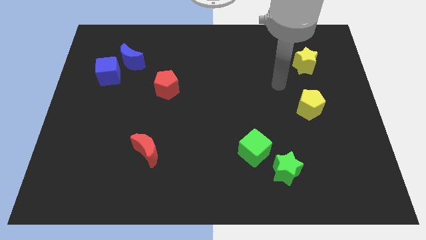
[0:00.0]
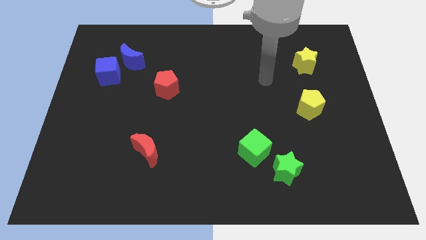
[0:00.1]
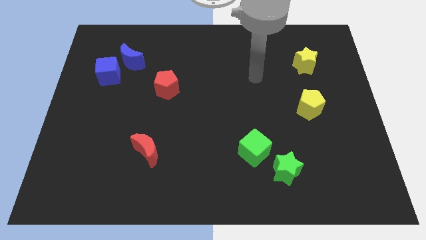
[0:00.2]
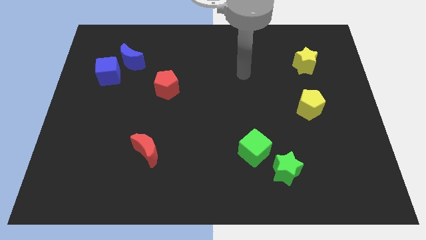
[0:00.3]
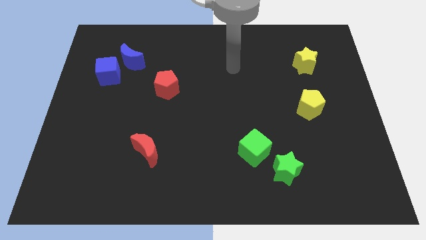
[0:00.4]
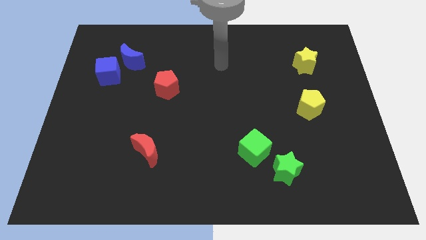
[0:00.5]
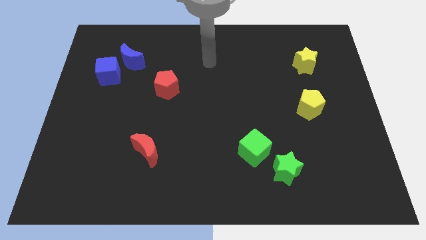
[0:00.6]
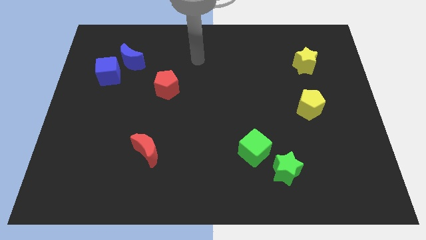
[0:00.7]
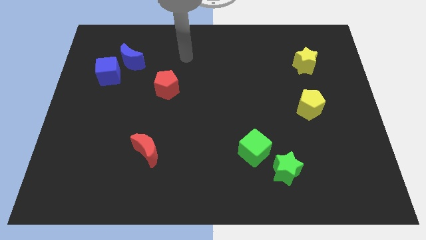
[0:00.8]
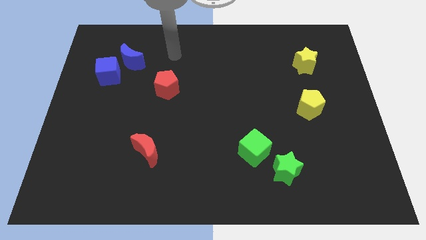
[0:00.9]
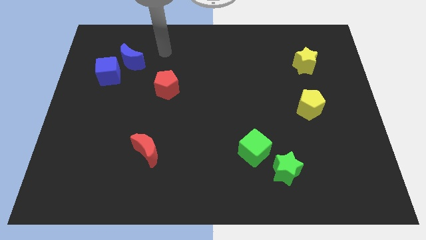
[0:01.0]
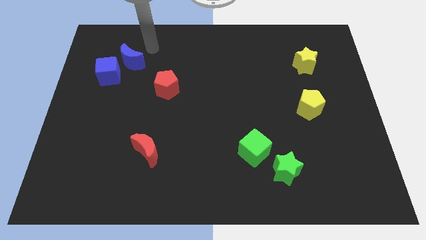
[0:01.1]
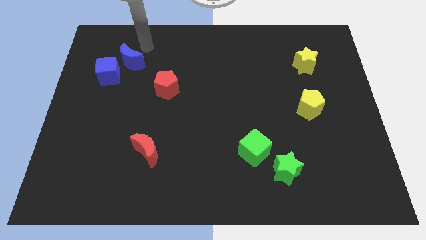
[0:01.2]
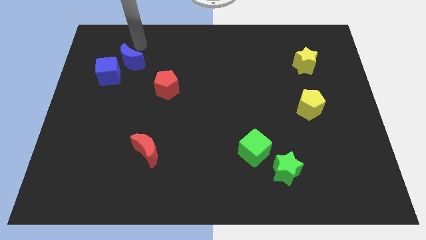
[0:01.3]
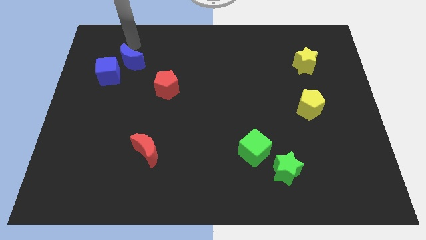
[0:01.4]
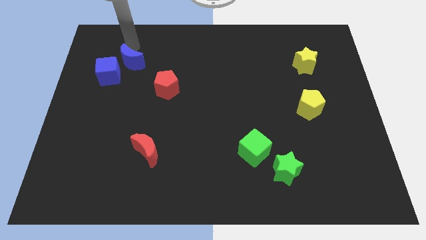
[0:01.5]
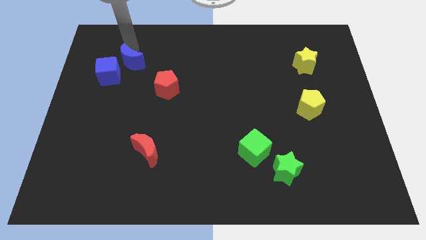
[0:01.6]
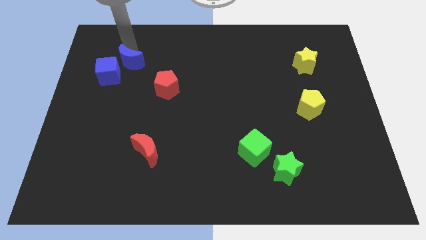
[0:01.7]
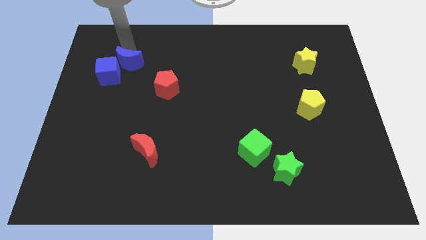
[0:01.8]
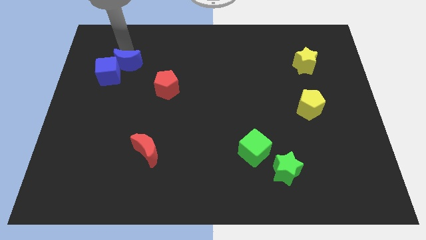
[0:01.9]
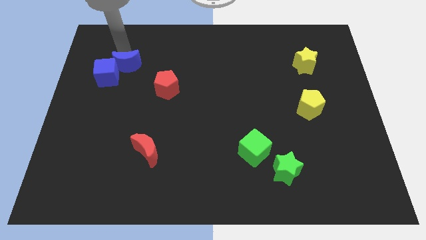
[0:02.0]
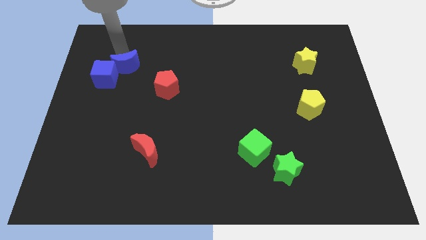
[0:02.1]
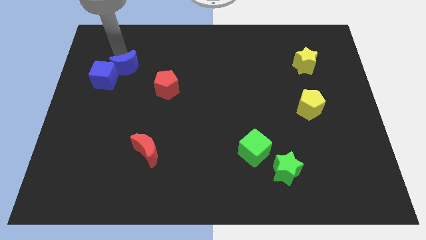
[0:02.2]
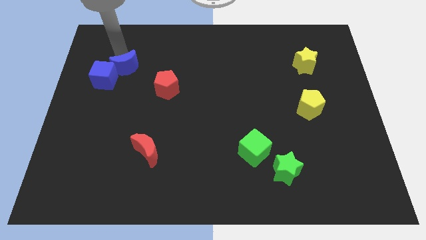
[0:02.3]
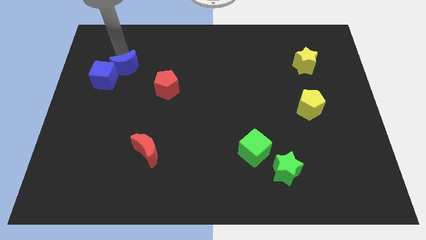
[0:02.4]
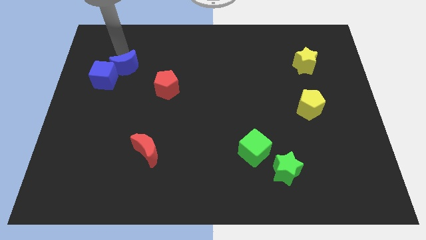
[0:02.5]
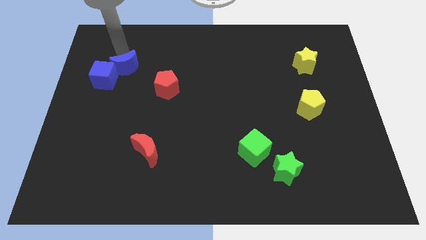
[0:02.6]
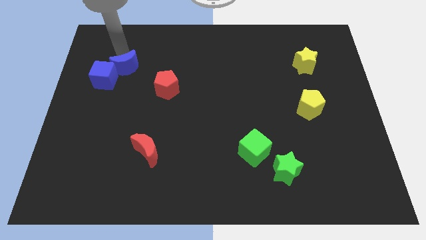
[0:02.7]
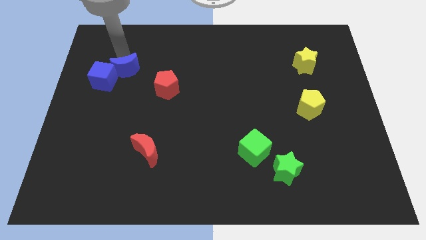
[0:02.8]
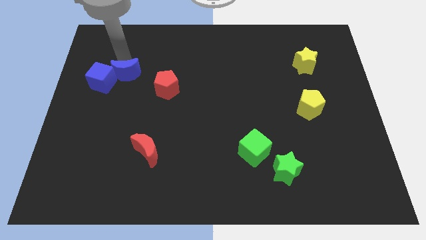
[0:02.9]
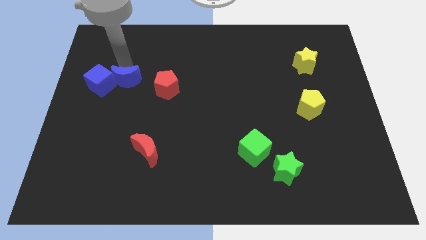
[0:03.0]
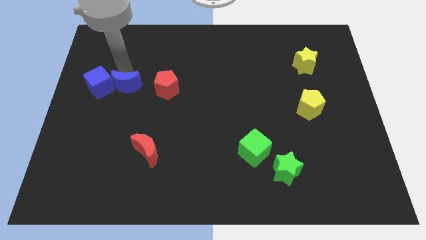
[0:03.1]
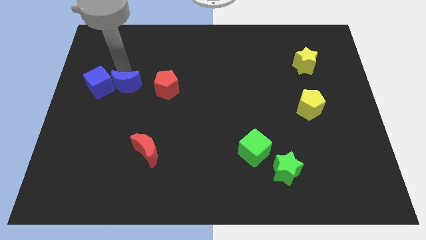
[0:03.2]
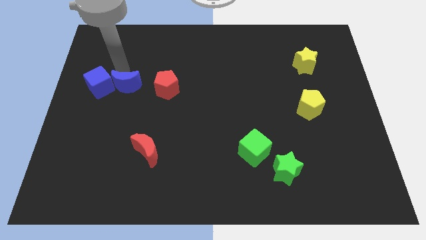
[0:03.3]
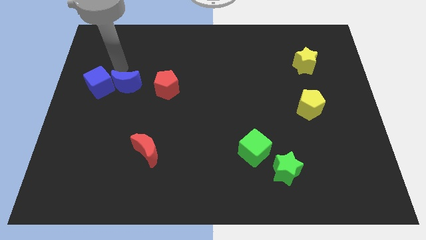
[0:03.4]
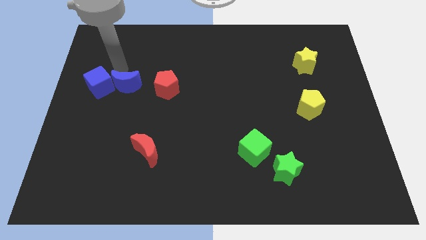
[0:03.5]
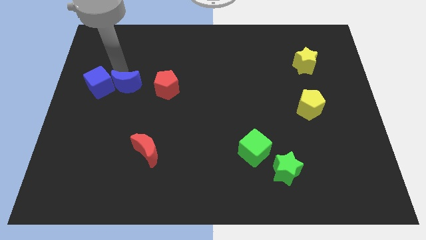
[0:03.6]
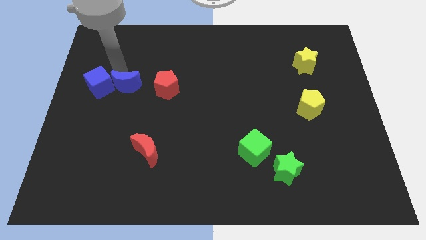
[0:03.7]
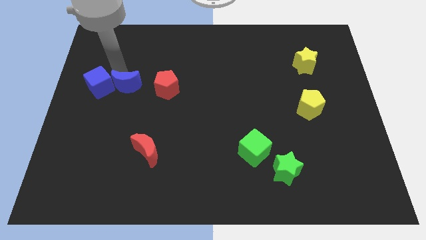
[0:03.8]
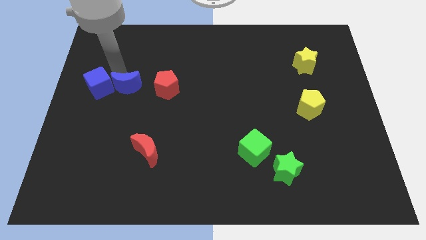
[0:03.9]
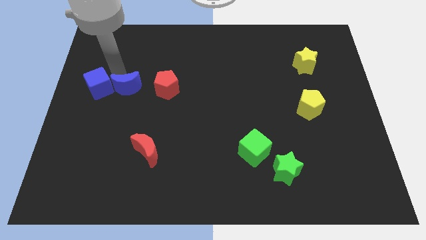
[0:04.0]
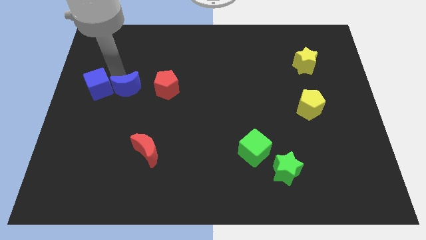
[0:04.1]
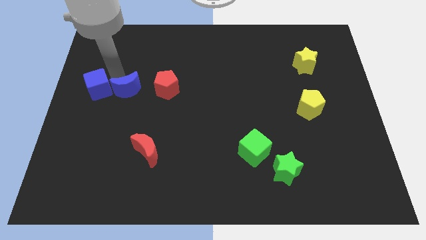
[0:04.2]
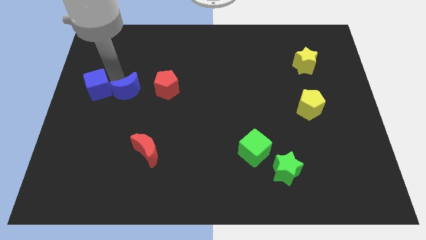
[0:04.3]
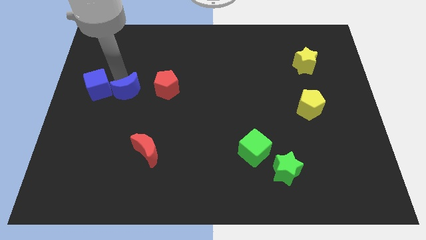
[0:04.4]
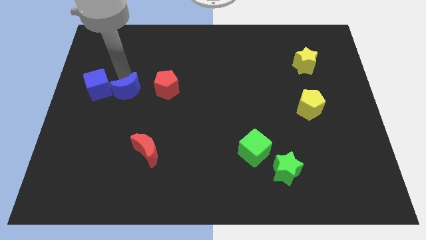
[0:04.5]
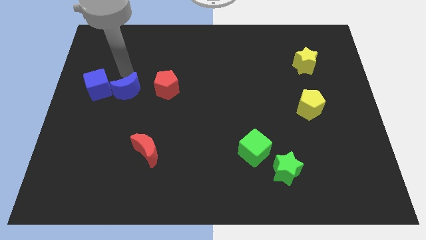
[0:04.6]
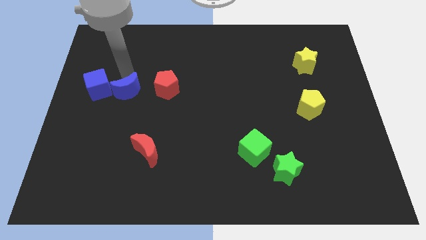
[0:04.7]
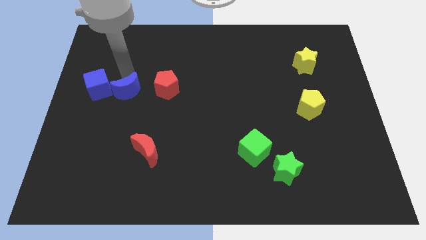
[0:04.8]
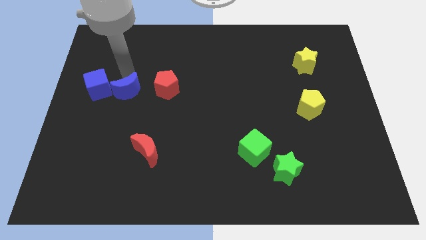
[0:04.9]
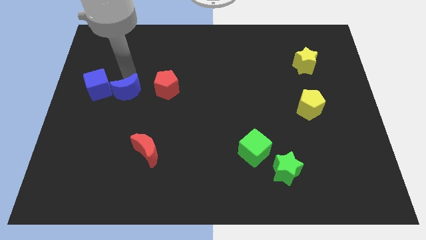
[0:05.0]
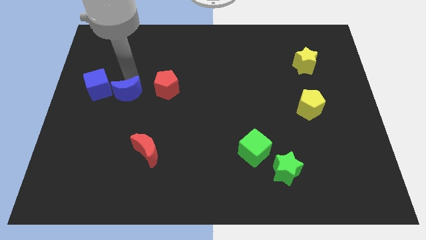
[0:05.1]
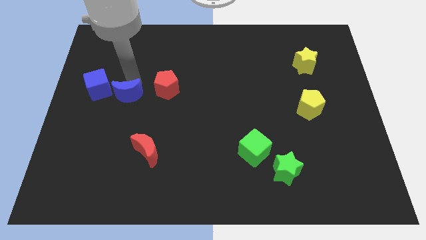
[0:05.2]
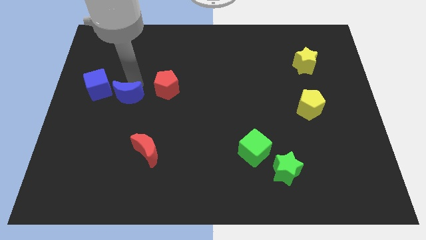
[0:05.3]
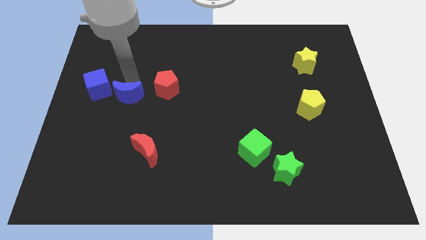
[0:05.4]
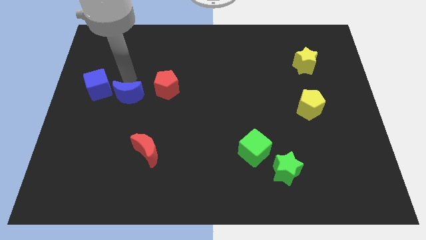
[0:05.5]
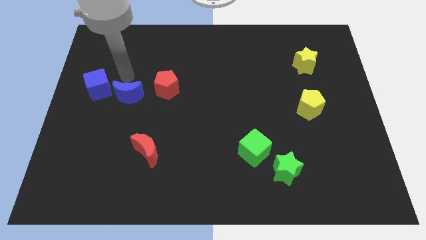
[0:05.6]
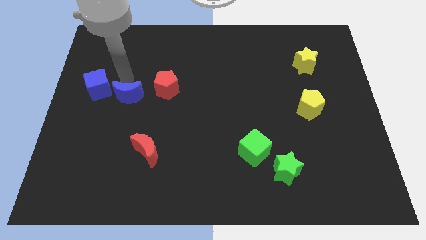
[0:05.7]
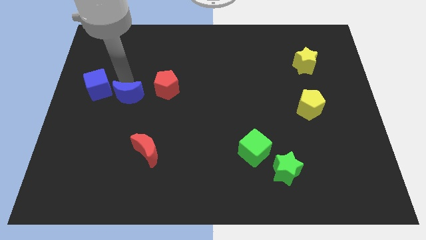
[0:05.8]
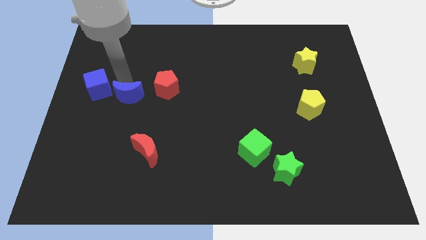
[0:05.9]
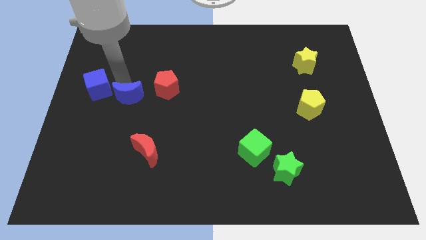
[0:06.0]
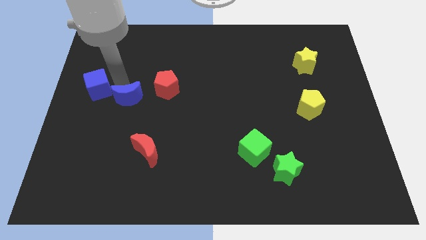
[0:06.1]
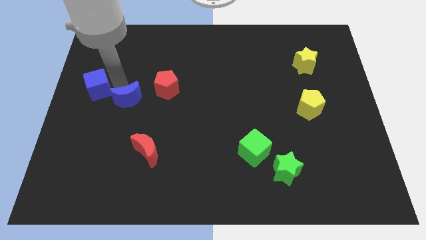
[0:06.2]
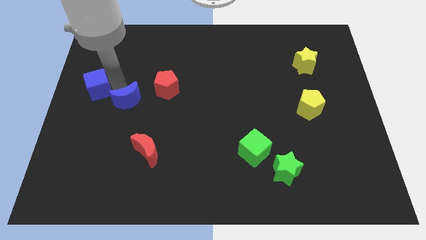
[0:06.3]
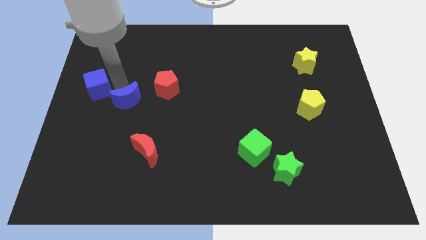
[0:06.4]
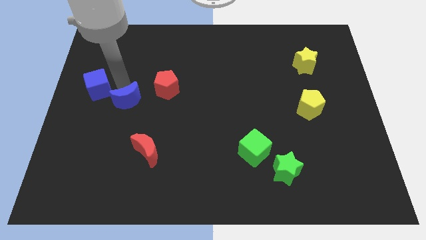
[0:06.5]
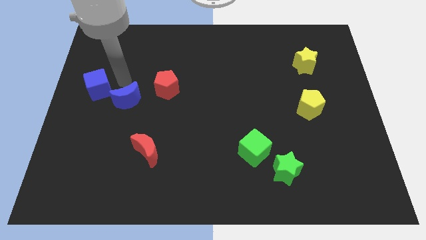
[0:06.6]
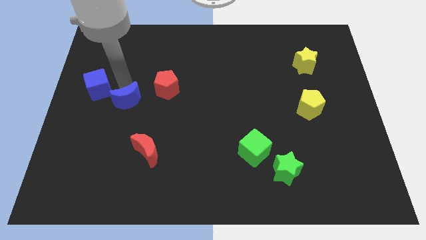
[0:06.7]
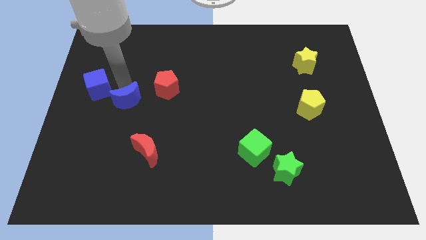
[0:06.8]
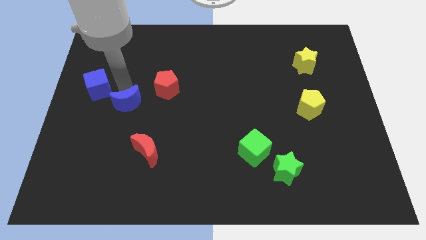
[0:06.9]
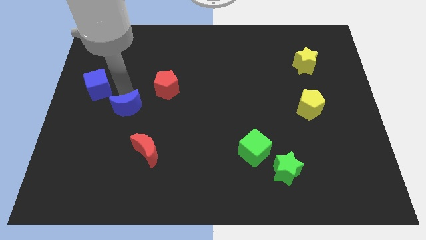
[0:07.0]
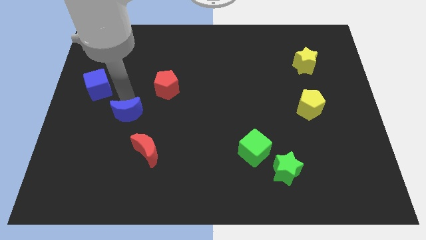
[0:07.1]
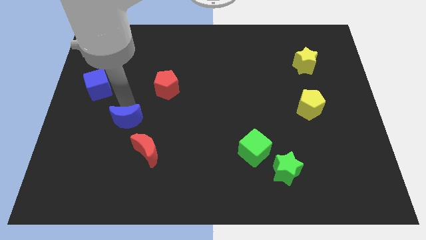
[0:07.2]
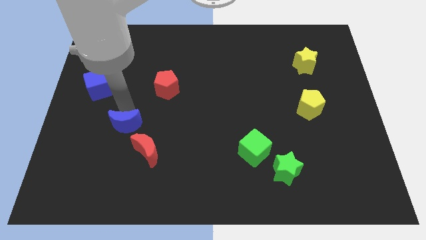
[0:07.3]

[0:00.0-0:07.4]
slide the blue moon downwards
